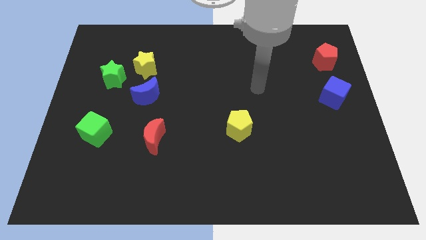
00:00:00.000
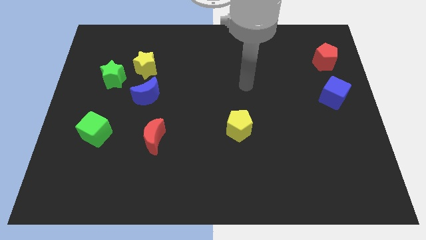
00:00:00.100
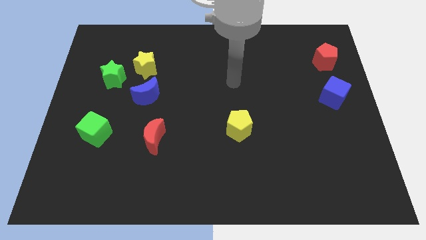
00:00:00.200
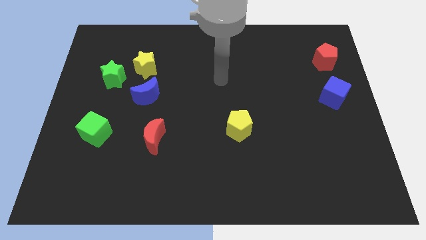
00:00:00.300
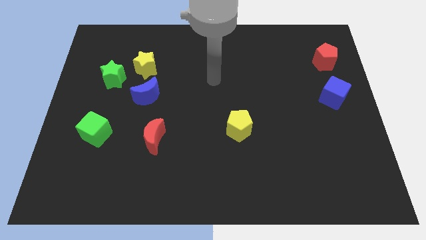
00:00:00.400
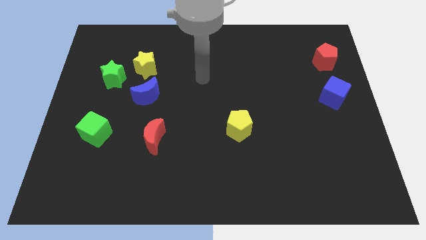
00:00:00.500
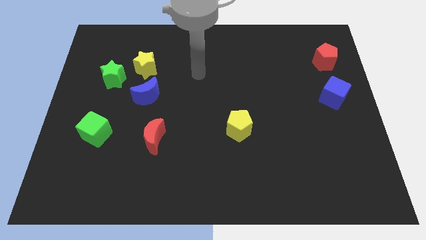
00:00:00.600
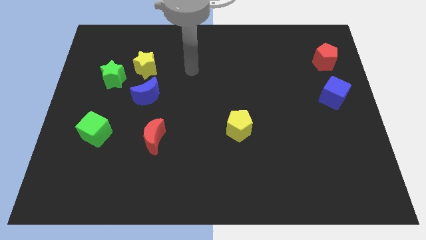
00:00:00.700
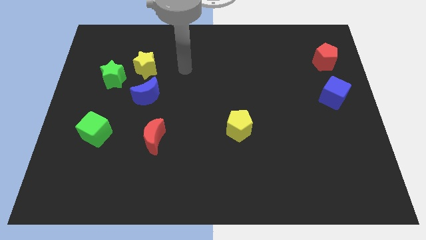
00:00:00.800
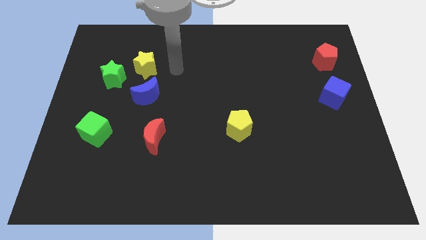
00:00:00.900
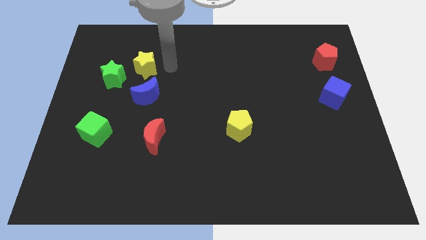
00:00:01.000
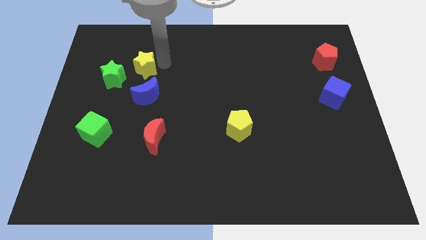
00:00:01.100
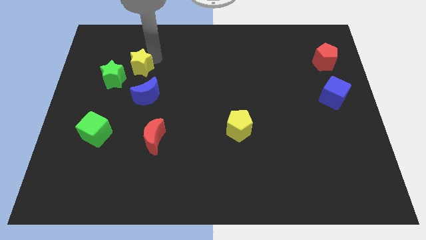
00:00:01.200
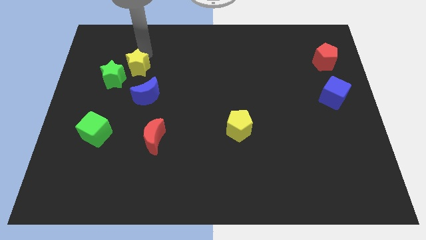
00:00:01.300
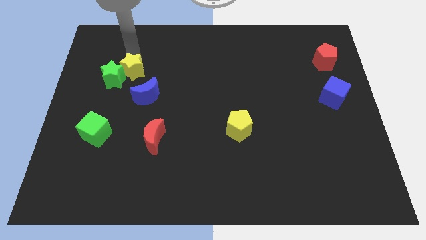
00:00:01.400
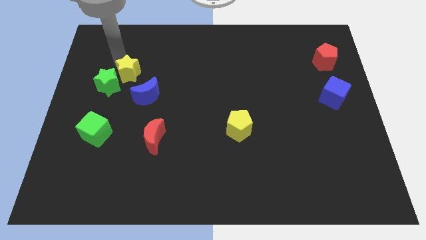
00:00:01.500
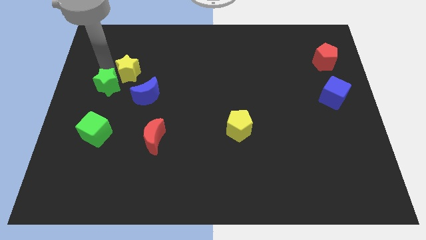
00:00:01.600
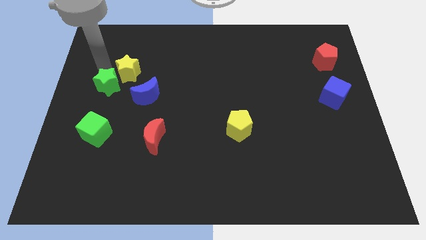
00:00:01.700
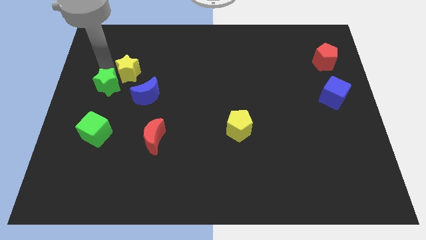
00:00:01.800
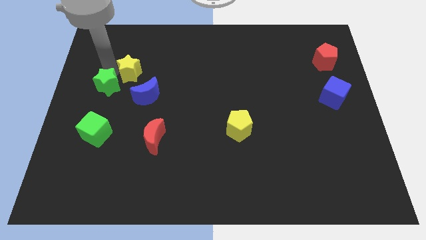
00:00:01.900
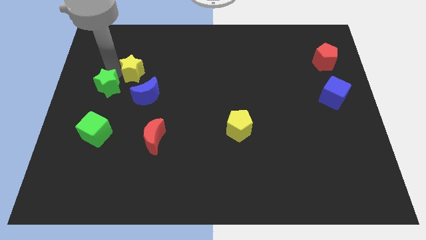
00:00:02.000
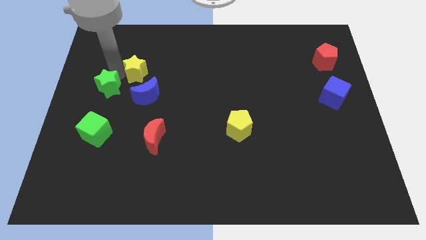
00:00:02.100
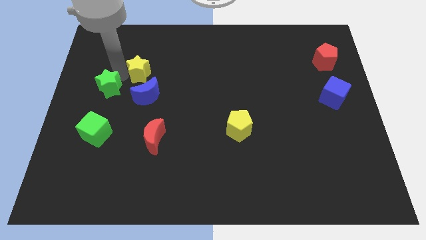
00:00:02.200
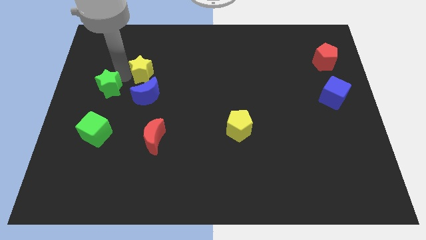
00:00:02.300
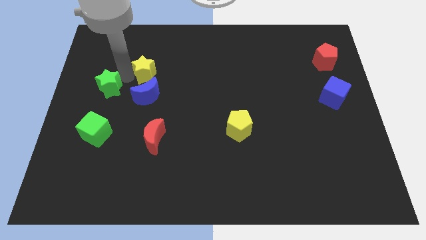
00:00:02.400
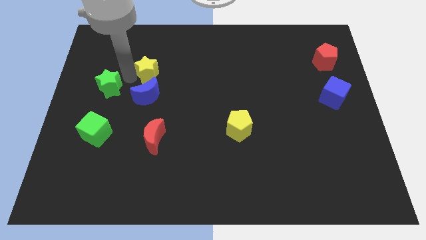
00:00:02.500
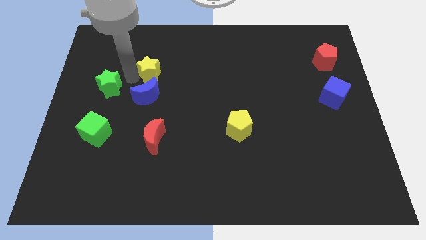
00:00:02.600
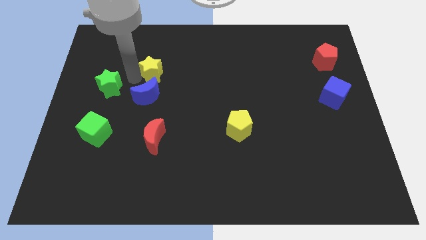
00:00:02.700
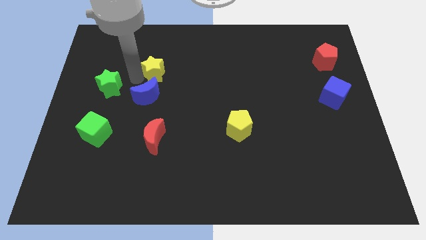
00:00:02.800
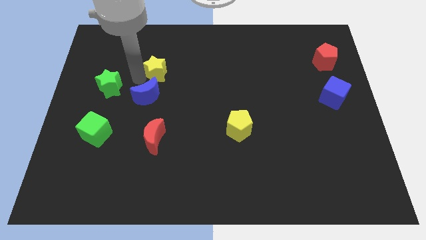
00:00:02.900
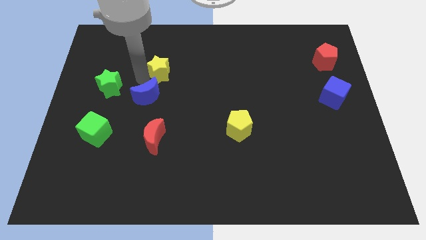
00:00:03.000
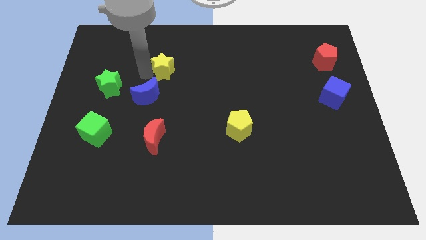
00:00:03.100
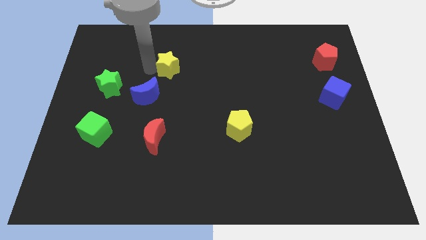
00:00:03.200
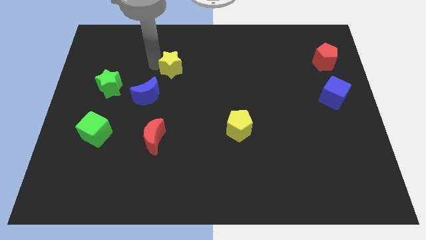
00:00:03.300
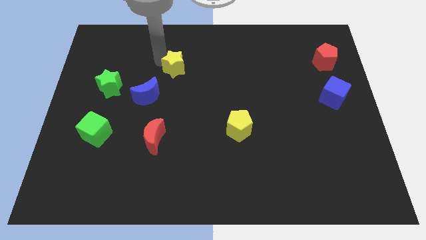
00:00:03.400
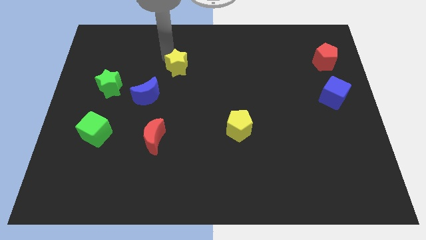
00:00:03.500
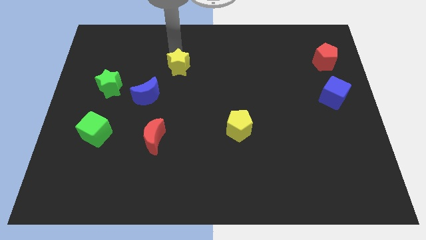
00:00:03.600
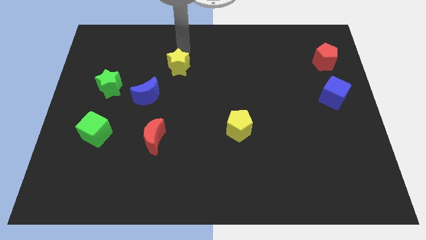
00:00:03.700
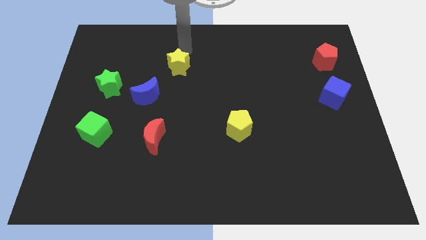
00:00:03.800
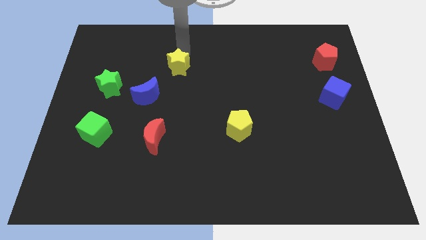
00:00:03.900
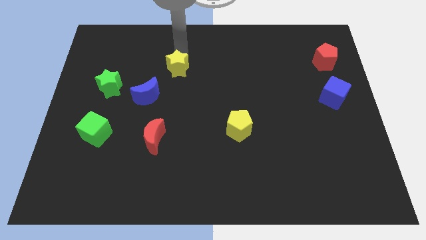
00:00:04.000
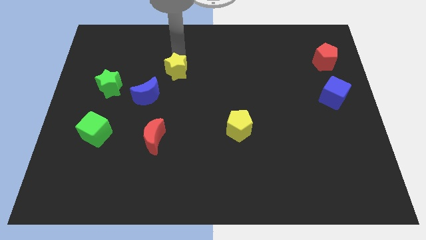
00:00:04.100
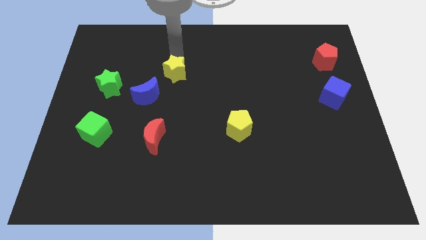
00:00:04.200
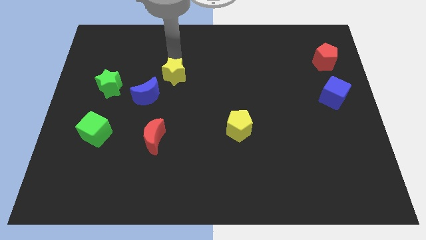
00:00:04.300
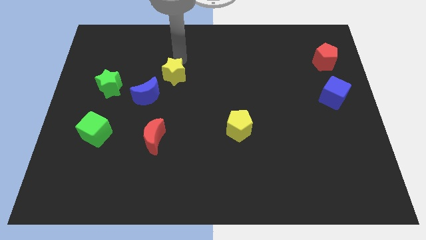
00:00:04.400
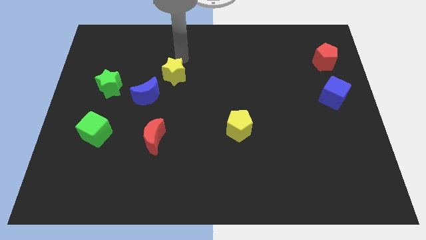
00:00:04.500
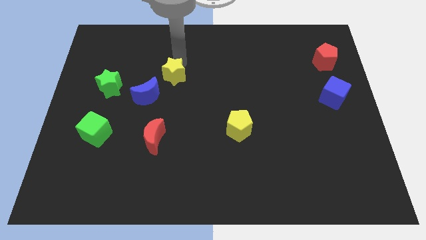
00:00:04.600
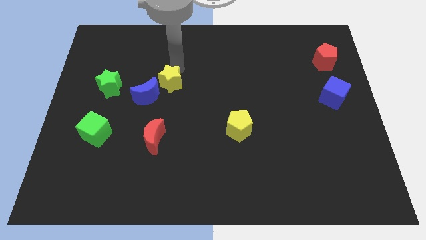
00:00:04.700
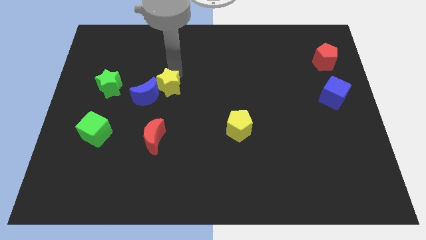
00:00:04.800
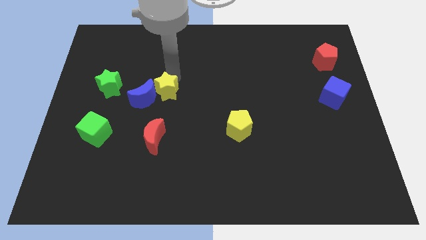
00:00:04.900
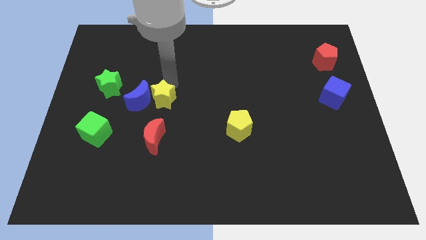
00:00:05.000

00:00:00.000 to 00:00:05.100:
slightly move the yellow star downwards

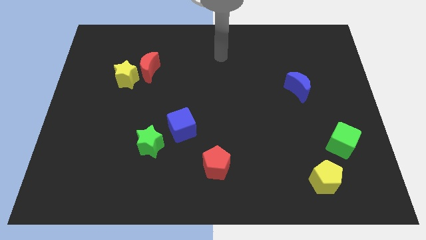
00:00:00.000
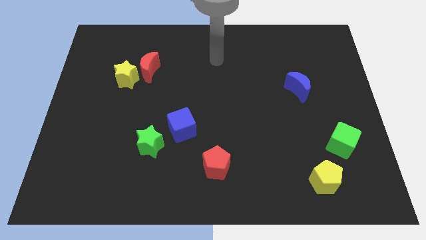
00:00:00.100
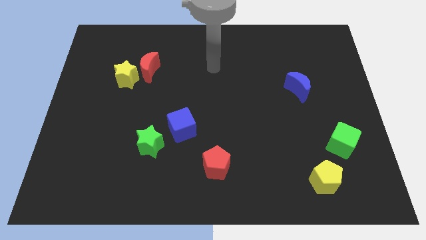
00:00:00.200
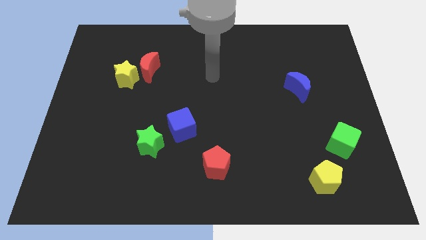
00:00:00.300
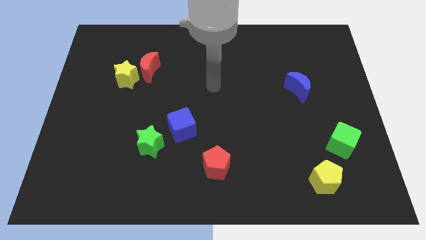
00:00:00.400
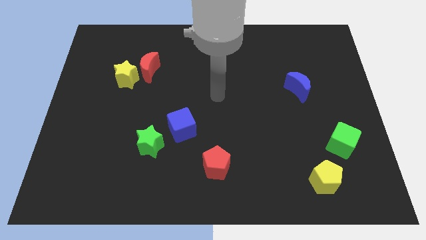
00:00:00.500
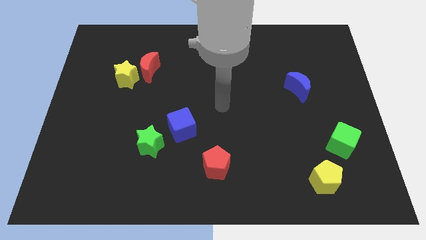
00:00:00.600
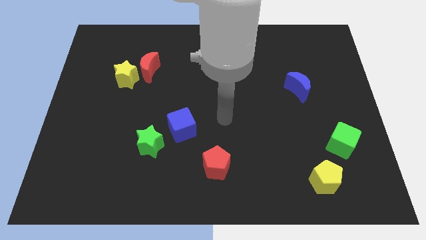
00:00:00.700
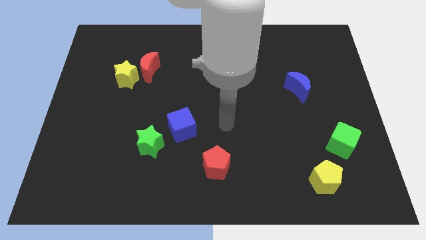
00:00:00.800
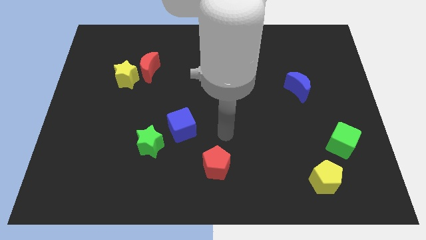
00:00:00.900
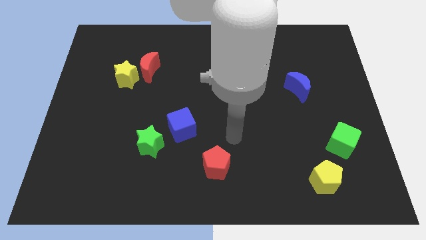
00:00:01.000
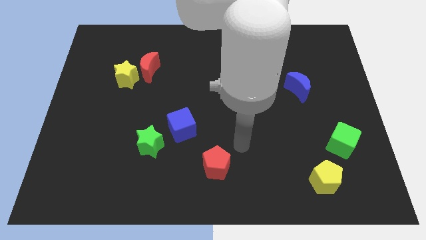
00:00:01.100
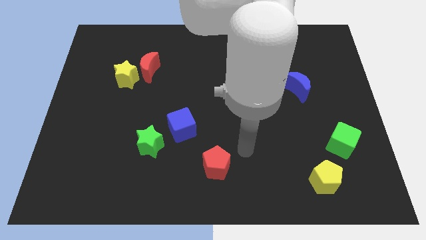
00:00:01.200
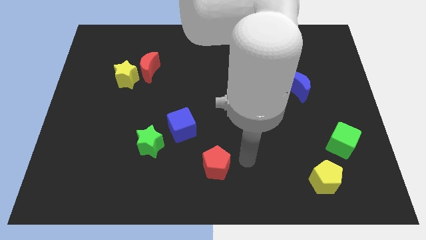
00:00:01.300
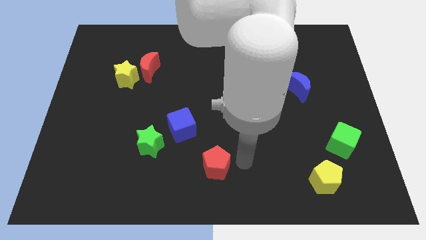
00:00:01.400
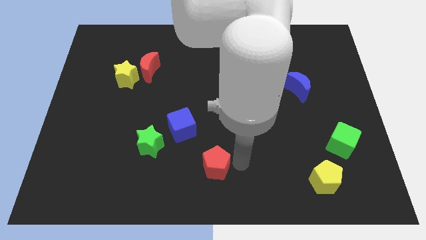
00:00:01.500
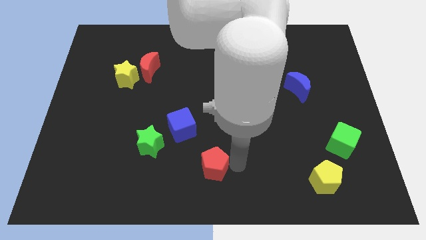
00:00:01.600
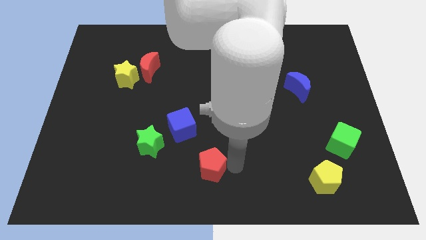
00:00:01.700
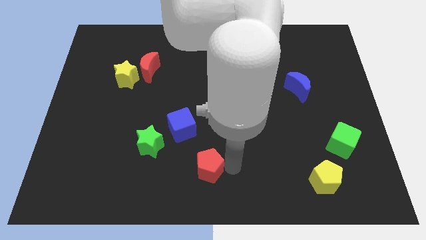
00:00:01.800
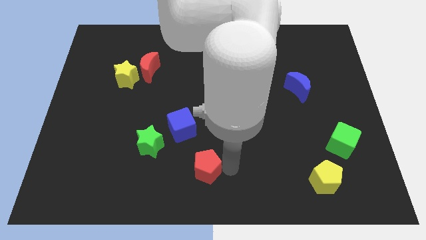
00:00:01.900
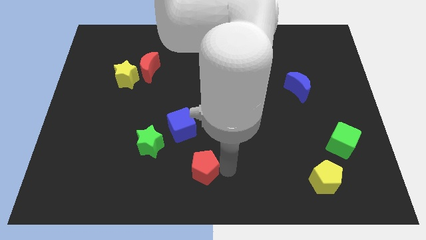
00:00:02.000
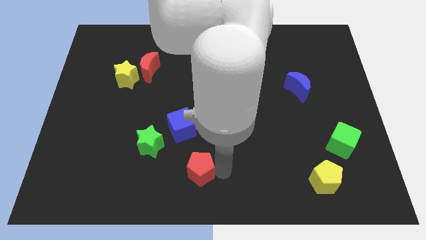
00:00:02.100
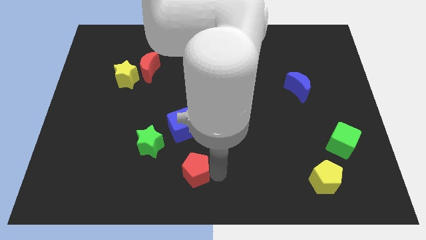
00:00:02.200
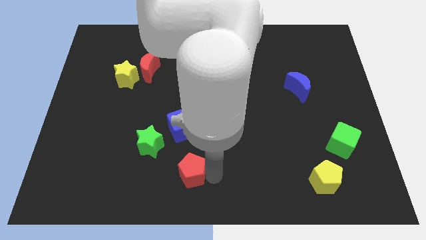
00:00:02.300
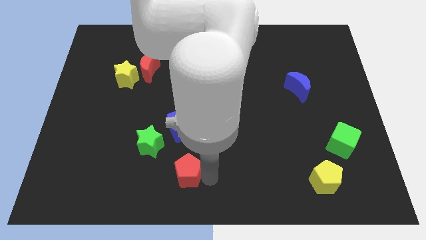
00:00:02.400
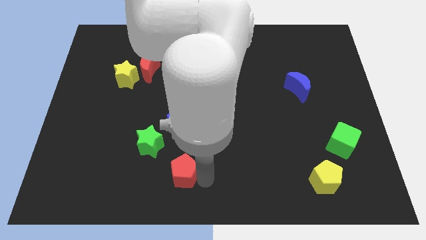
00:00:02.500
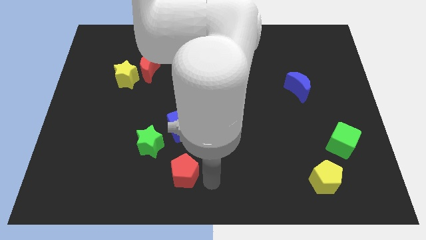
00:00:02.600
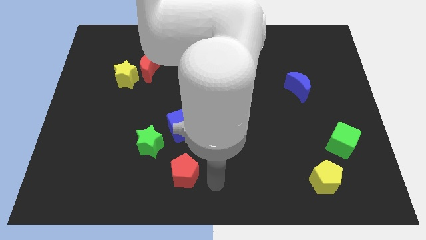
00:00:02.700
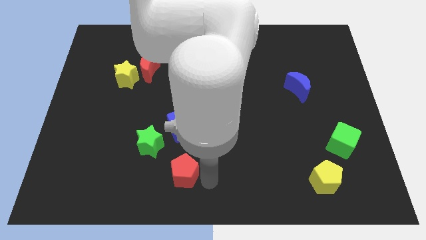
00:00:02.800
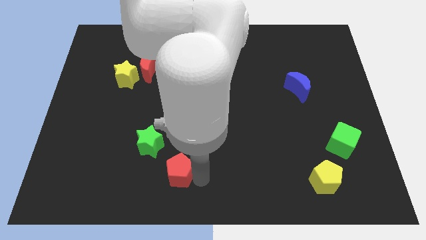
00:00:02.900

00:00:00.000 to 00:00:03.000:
slightly push the red pentagon left
